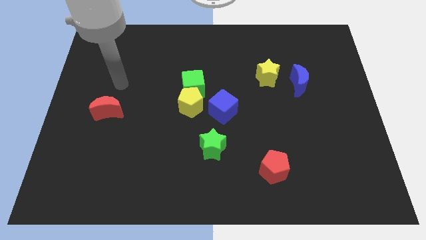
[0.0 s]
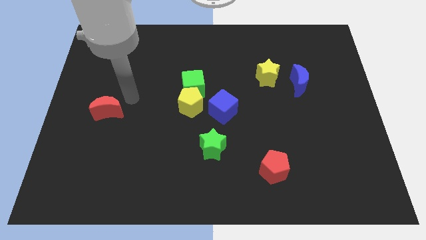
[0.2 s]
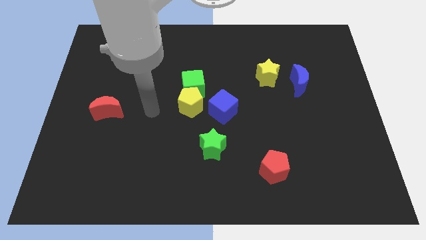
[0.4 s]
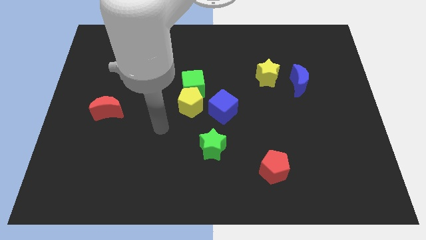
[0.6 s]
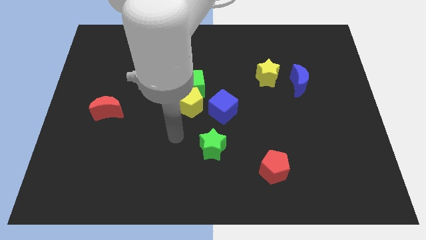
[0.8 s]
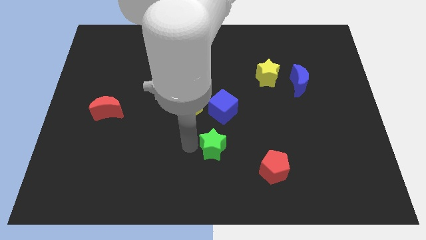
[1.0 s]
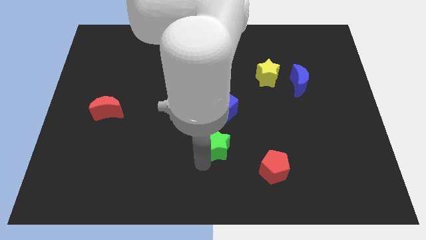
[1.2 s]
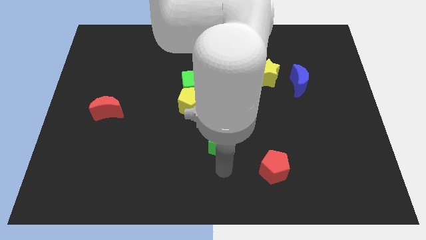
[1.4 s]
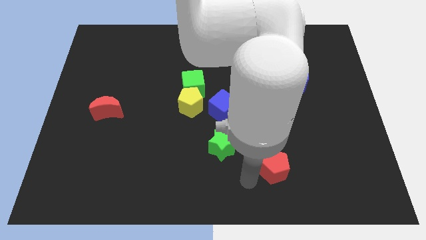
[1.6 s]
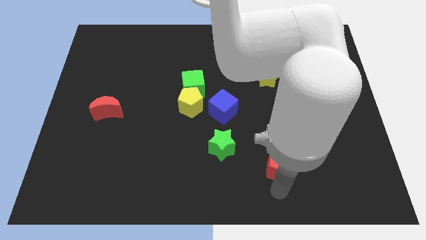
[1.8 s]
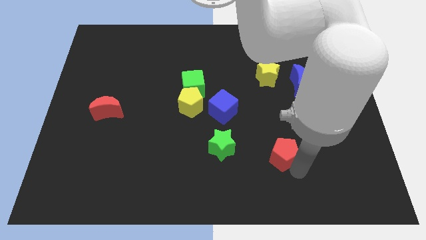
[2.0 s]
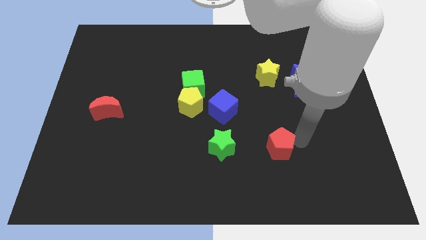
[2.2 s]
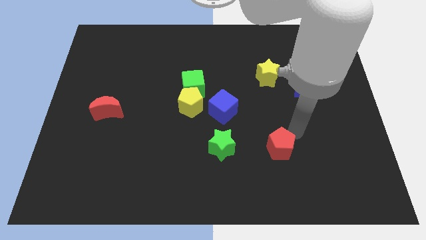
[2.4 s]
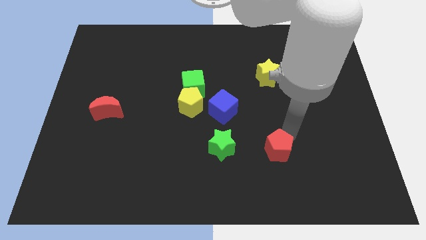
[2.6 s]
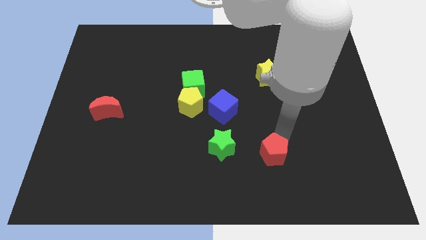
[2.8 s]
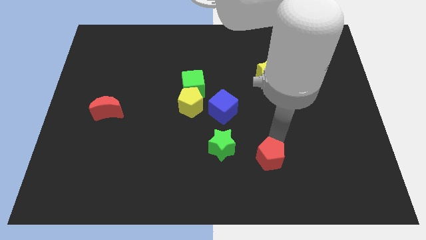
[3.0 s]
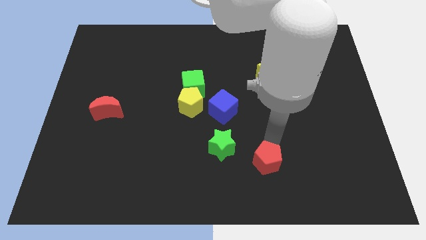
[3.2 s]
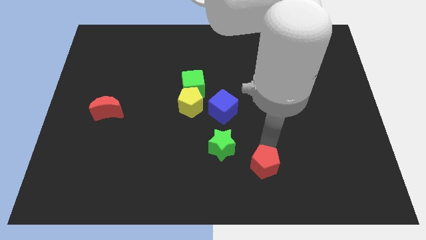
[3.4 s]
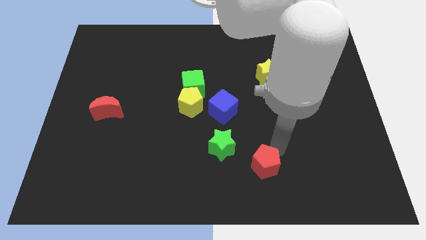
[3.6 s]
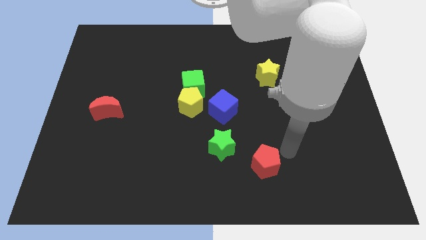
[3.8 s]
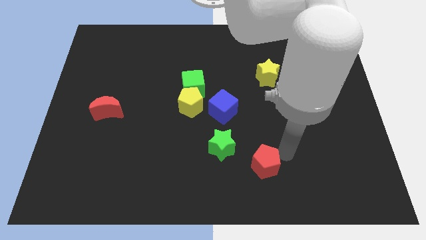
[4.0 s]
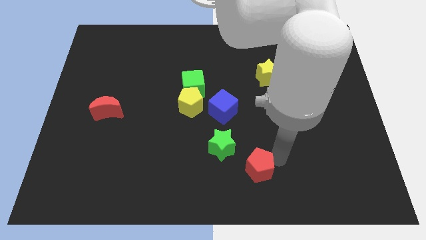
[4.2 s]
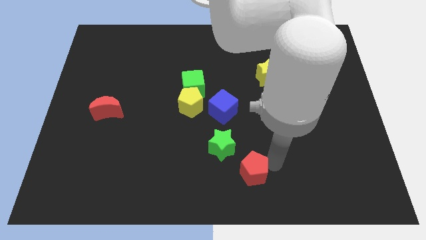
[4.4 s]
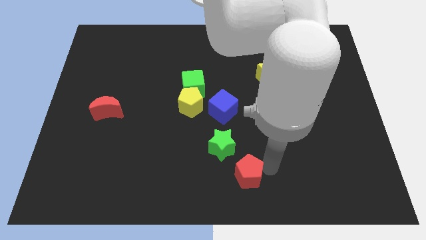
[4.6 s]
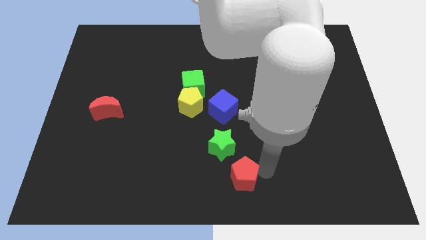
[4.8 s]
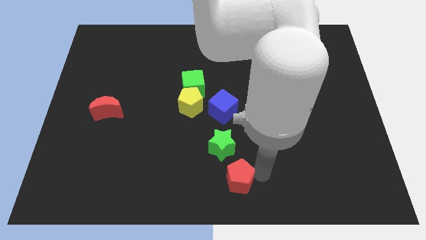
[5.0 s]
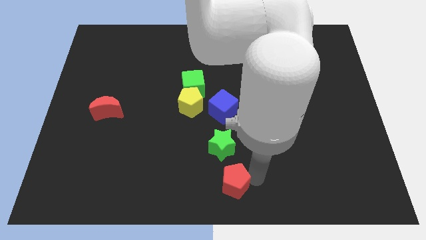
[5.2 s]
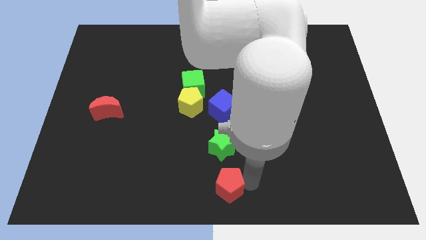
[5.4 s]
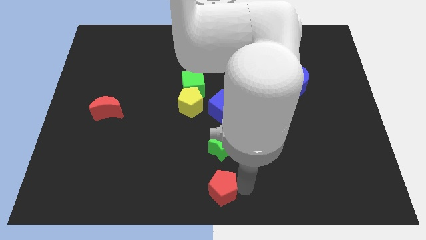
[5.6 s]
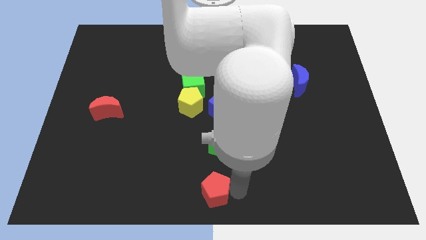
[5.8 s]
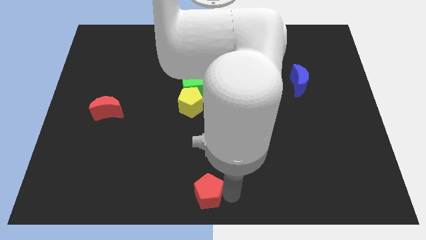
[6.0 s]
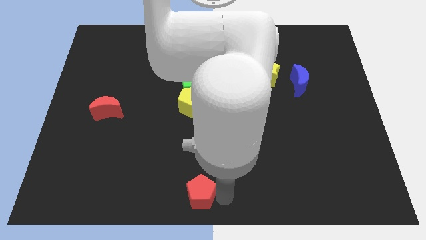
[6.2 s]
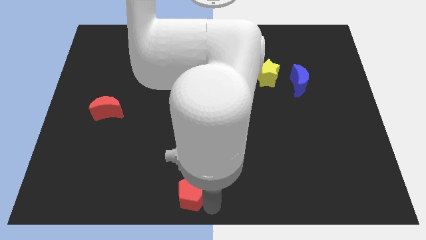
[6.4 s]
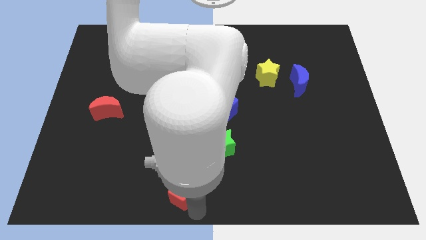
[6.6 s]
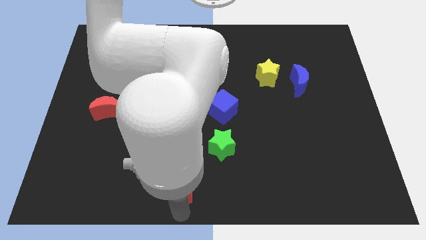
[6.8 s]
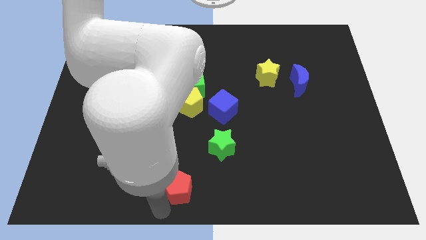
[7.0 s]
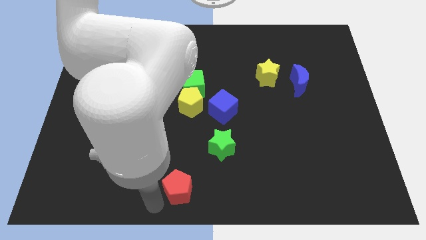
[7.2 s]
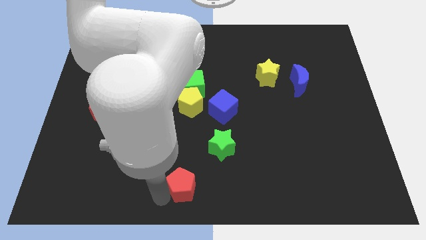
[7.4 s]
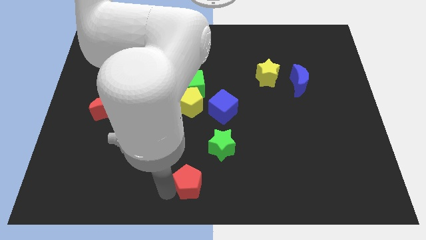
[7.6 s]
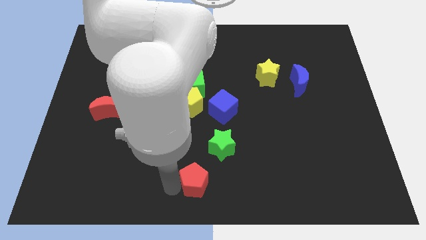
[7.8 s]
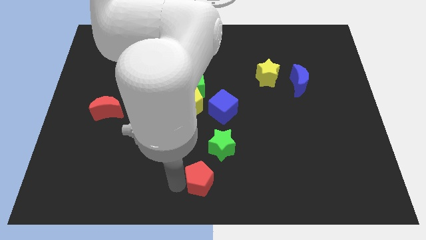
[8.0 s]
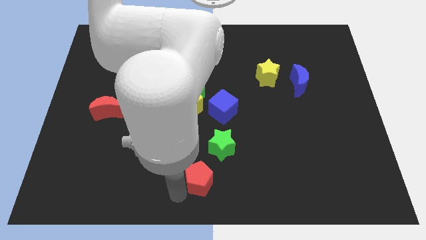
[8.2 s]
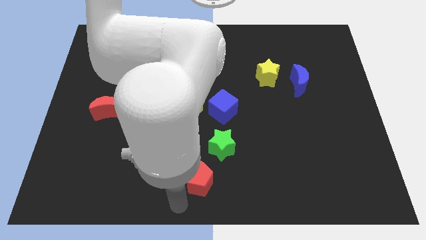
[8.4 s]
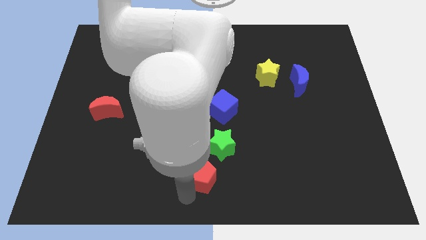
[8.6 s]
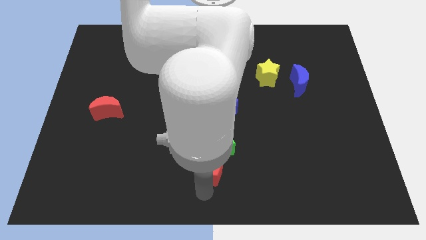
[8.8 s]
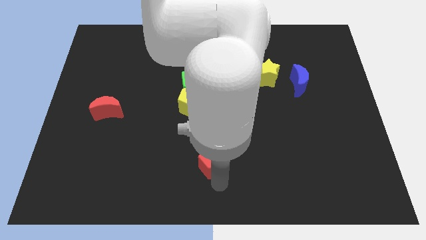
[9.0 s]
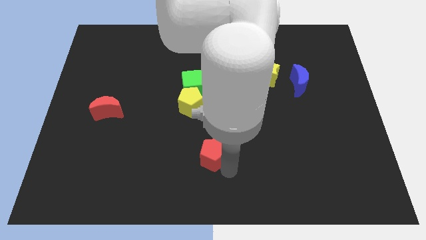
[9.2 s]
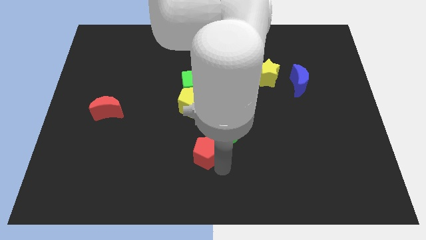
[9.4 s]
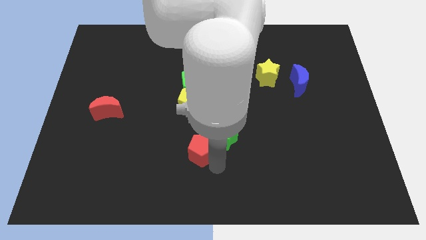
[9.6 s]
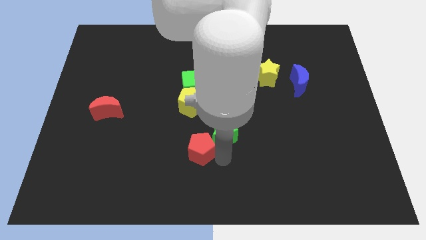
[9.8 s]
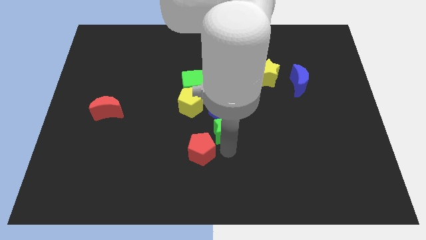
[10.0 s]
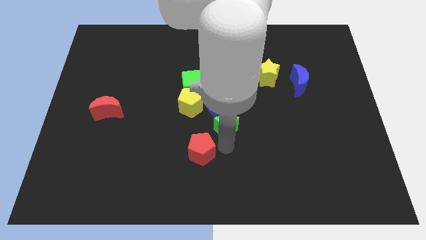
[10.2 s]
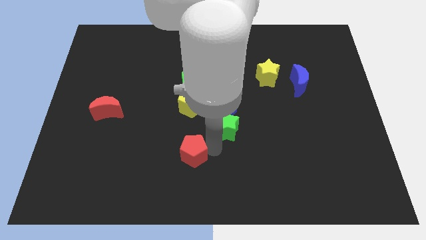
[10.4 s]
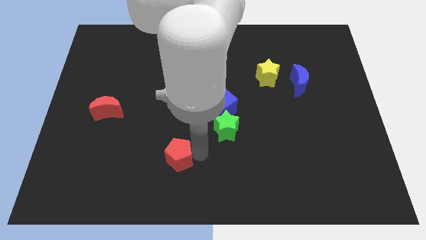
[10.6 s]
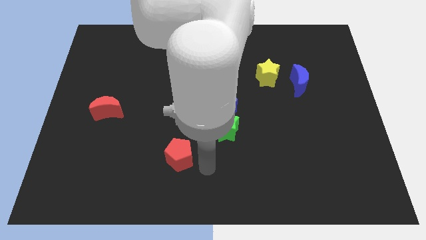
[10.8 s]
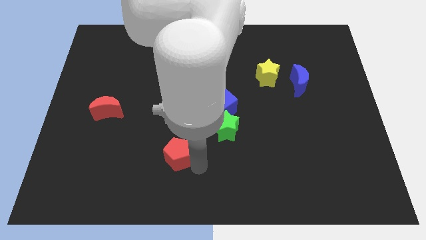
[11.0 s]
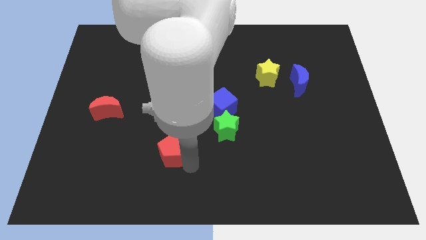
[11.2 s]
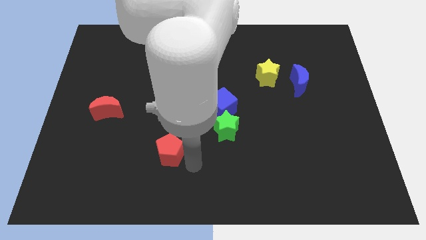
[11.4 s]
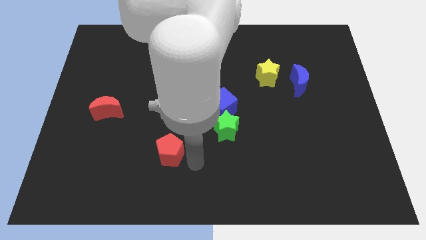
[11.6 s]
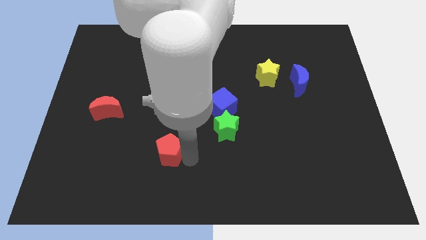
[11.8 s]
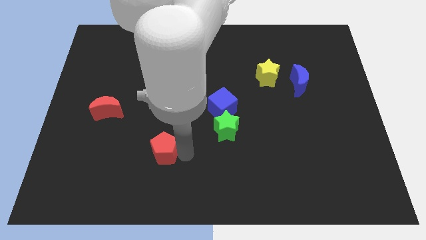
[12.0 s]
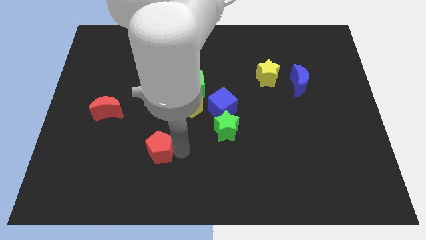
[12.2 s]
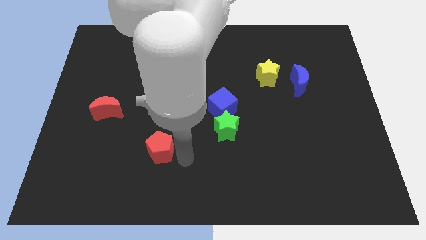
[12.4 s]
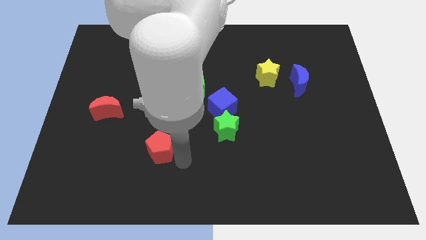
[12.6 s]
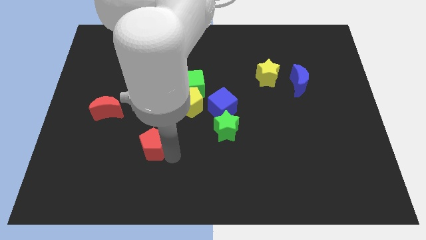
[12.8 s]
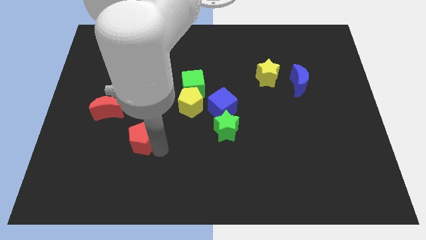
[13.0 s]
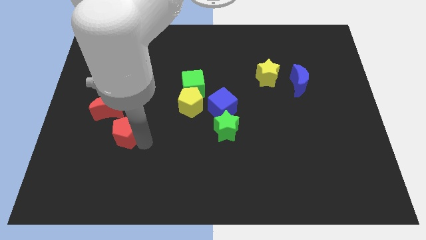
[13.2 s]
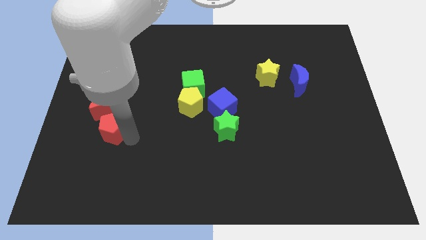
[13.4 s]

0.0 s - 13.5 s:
move the red pentagon close to the red moon
